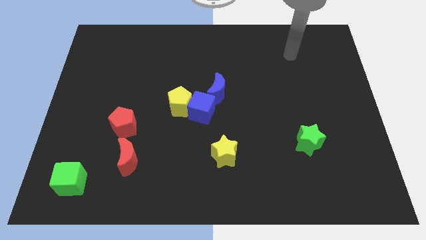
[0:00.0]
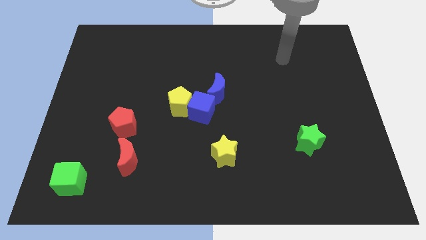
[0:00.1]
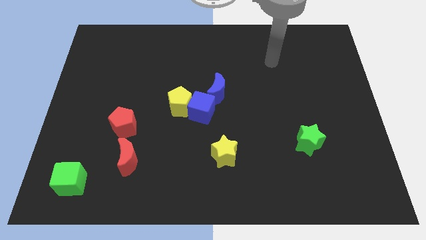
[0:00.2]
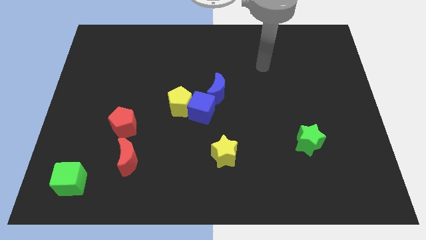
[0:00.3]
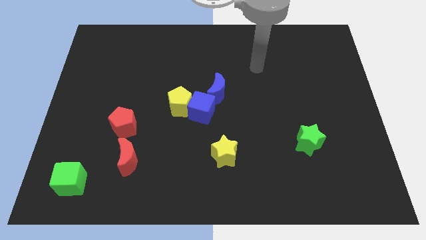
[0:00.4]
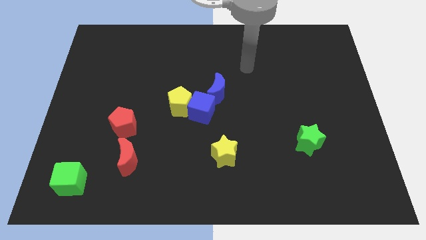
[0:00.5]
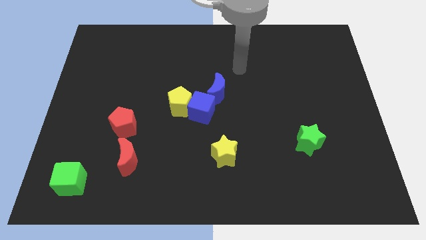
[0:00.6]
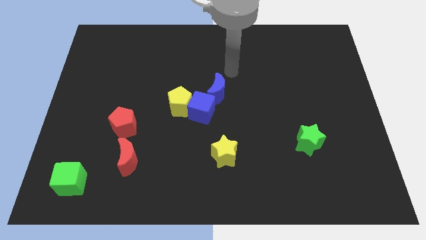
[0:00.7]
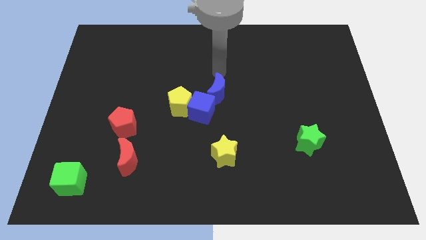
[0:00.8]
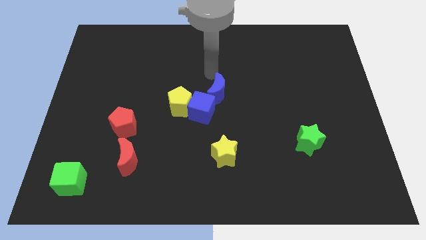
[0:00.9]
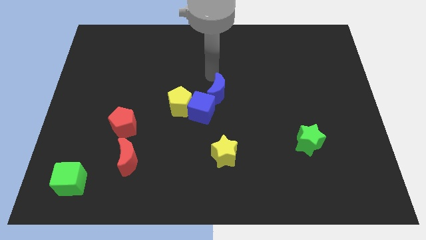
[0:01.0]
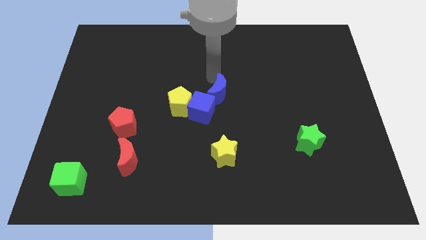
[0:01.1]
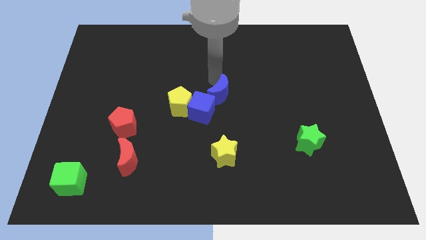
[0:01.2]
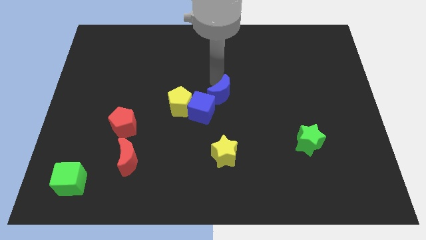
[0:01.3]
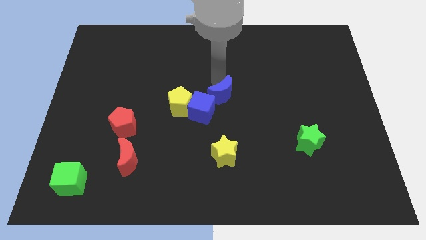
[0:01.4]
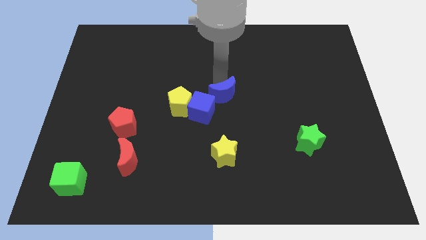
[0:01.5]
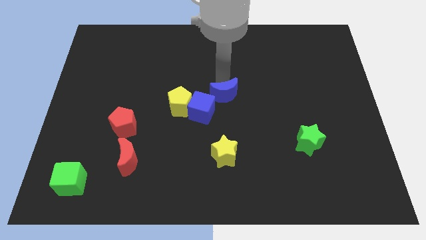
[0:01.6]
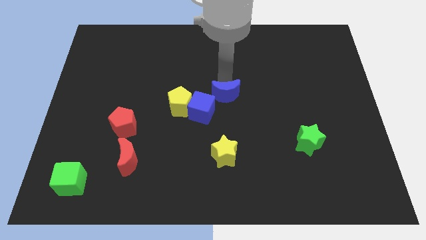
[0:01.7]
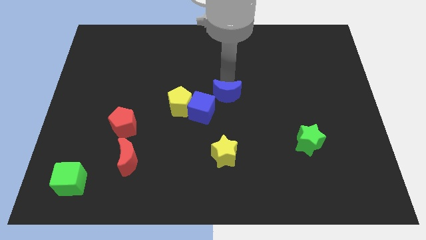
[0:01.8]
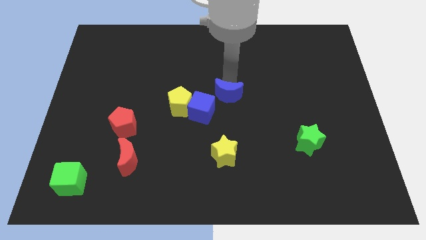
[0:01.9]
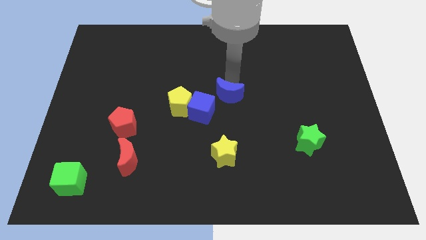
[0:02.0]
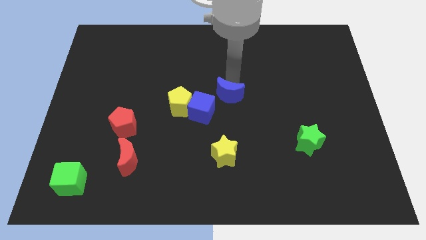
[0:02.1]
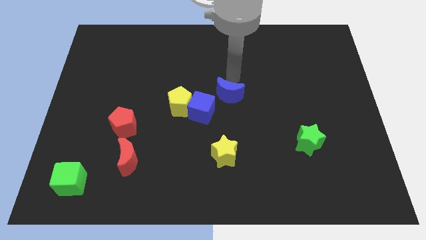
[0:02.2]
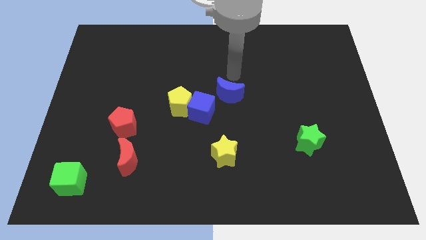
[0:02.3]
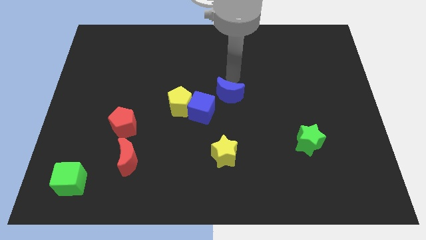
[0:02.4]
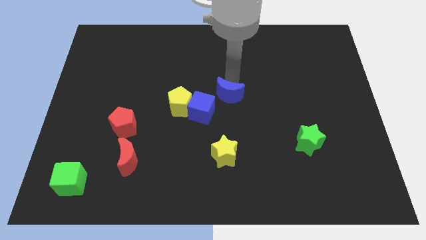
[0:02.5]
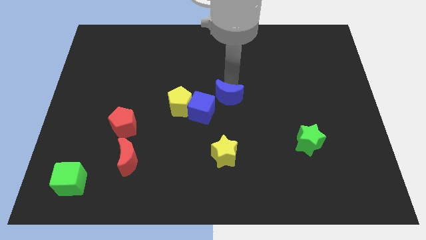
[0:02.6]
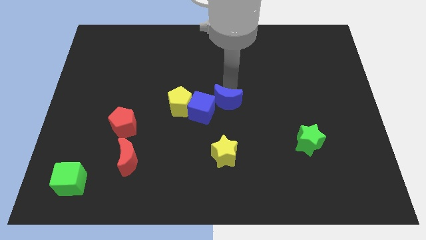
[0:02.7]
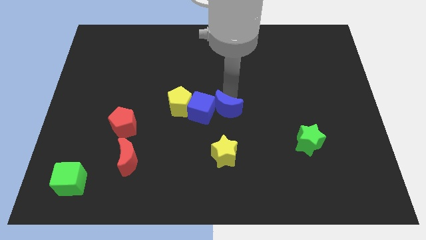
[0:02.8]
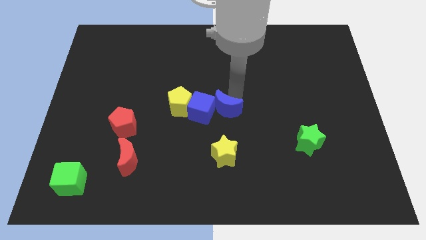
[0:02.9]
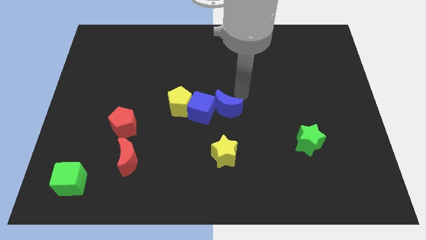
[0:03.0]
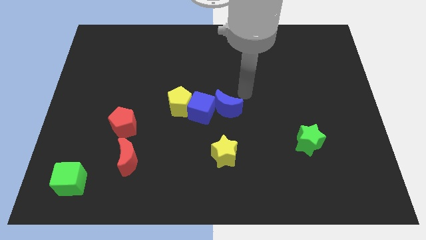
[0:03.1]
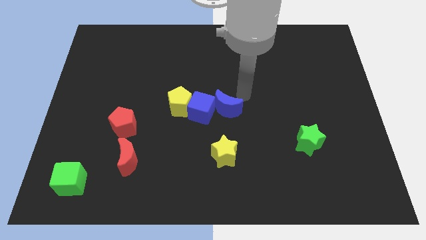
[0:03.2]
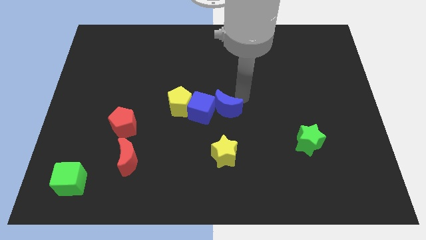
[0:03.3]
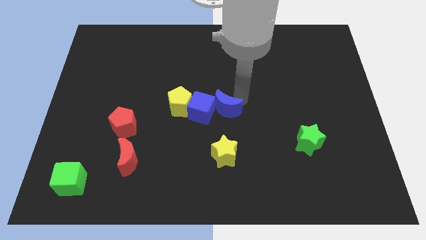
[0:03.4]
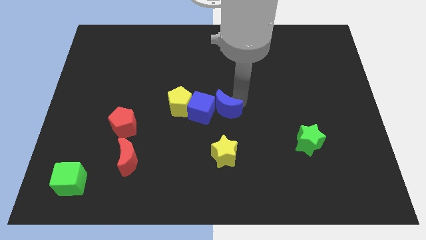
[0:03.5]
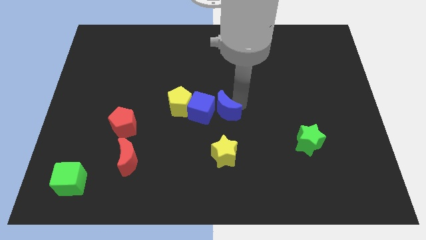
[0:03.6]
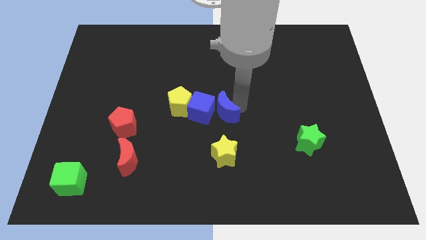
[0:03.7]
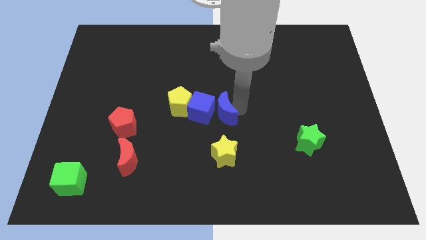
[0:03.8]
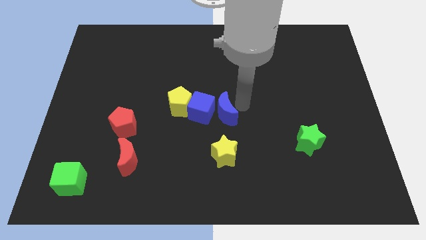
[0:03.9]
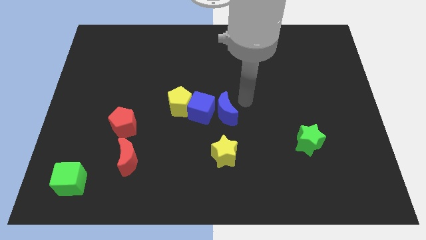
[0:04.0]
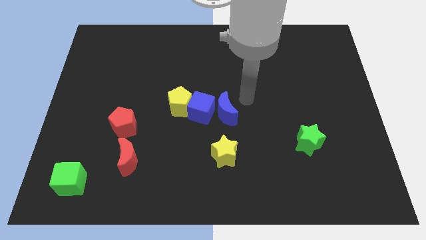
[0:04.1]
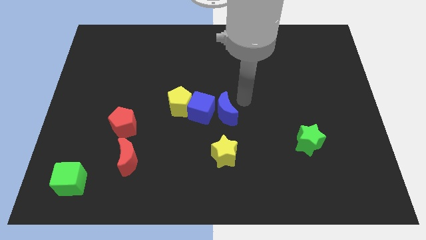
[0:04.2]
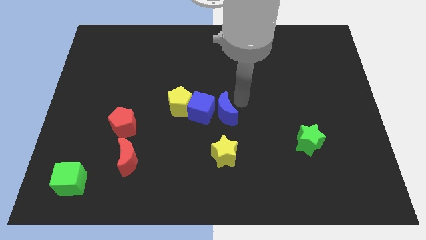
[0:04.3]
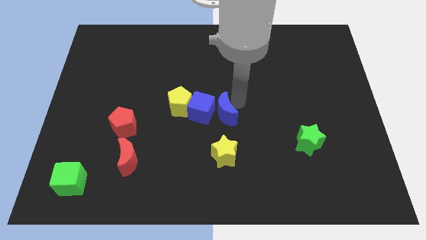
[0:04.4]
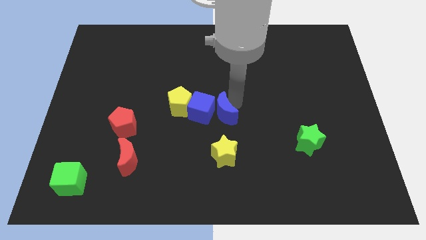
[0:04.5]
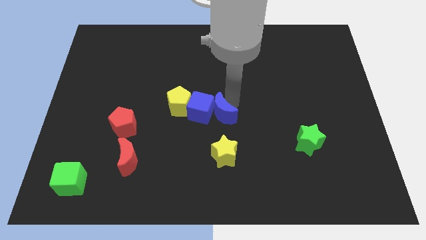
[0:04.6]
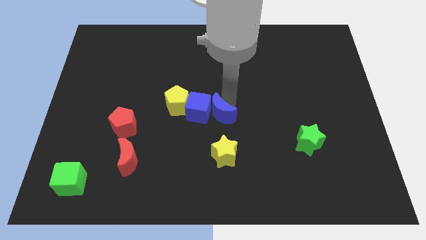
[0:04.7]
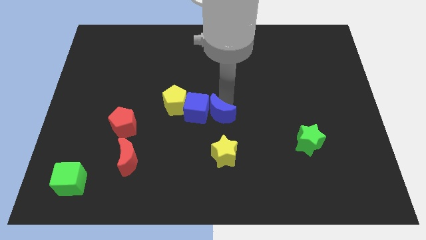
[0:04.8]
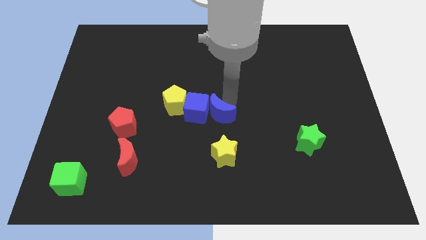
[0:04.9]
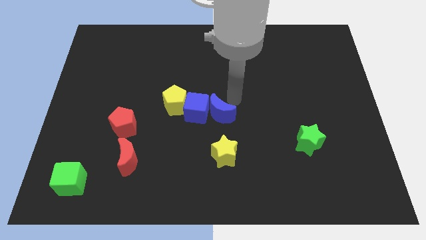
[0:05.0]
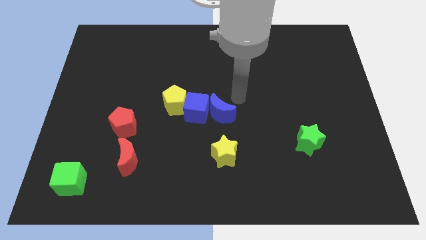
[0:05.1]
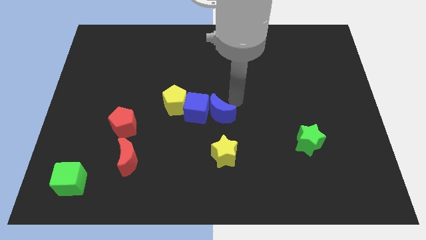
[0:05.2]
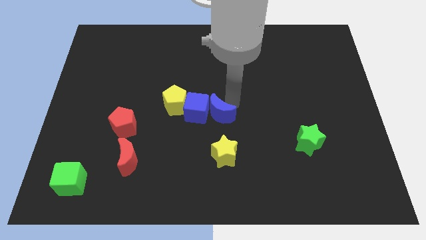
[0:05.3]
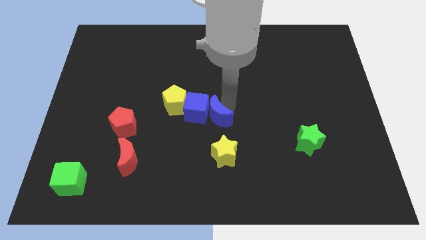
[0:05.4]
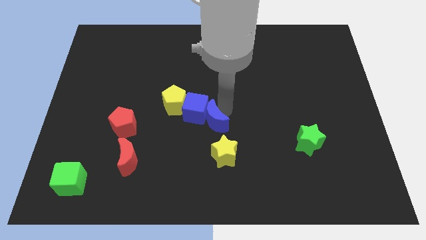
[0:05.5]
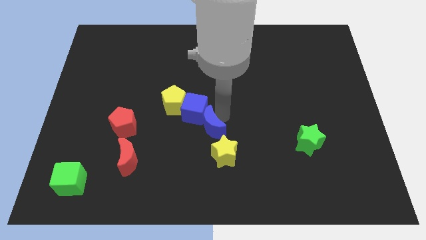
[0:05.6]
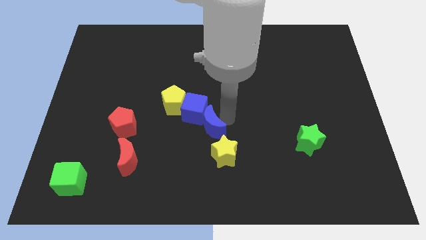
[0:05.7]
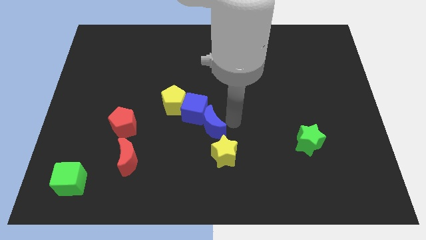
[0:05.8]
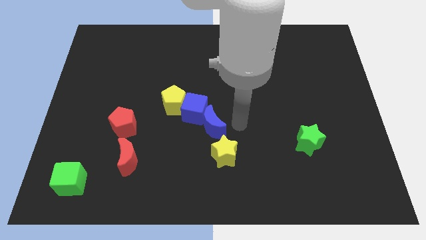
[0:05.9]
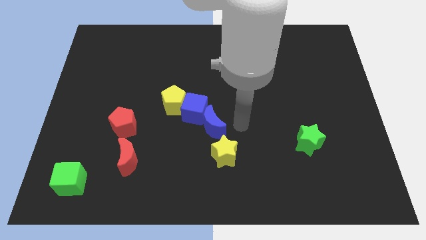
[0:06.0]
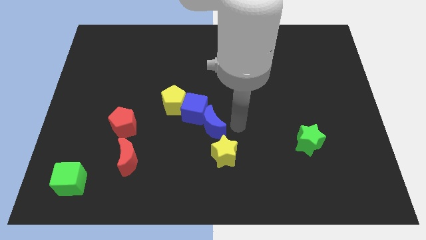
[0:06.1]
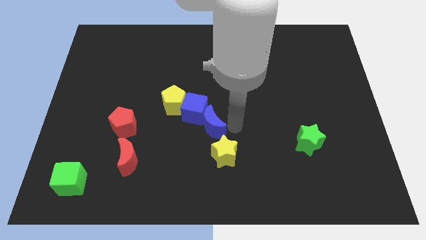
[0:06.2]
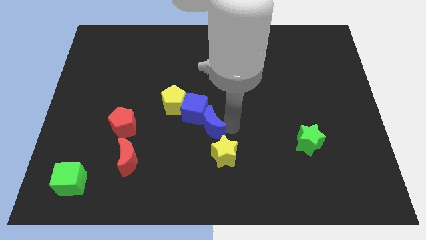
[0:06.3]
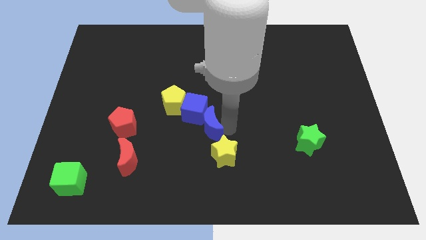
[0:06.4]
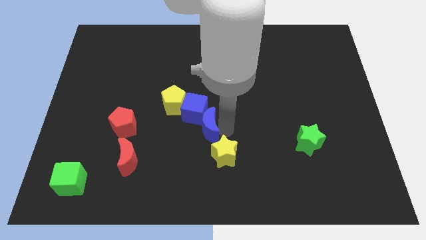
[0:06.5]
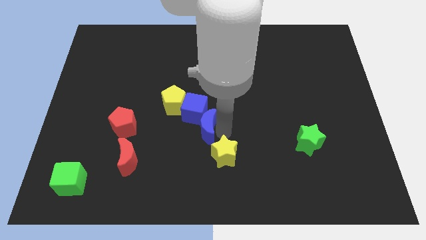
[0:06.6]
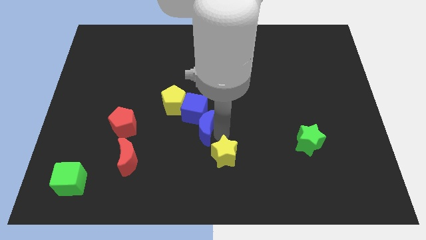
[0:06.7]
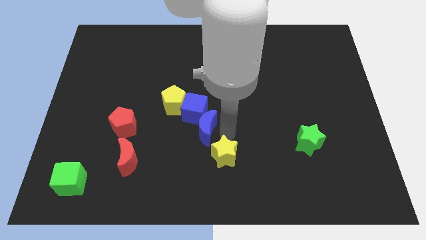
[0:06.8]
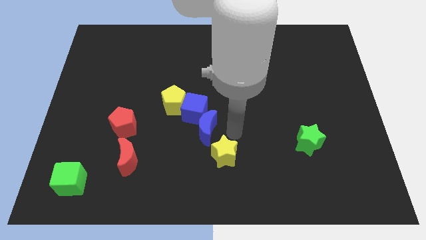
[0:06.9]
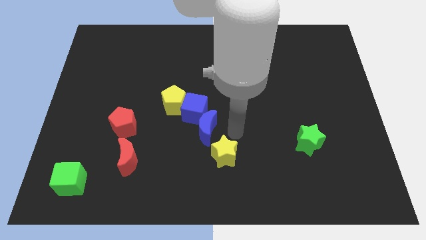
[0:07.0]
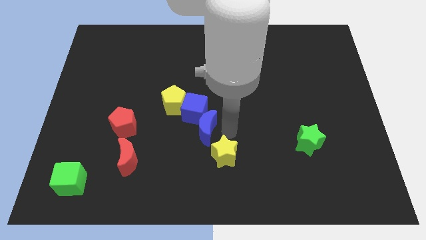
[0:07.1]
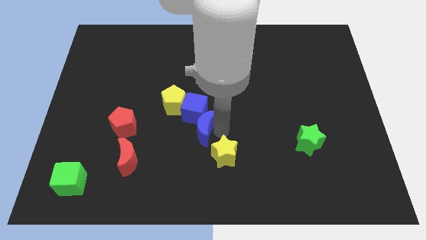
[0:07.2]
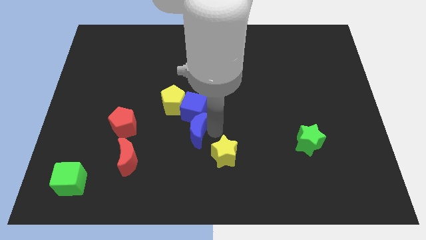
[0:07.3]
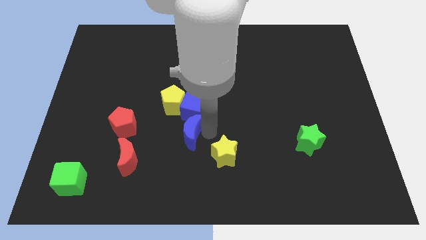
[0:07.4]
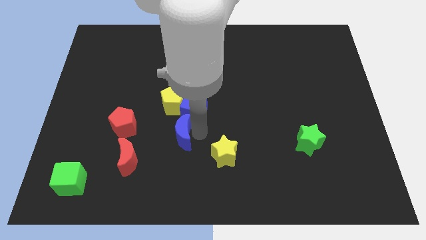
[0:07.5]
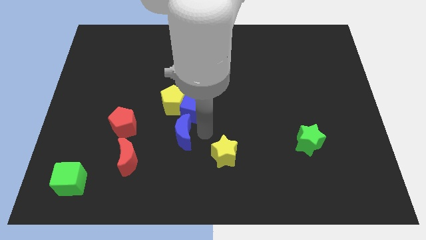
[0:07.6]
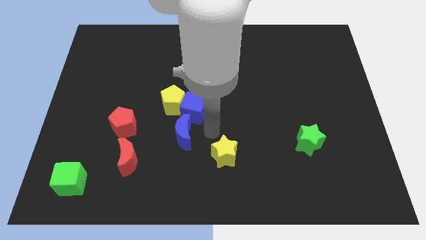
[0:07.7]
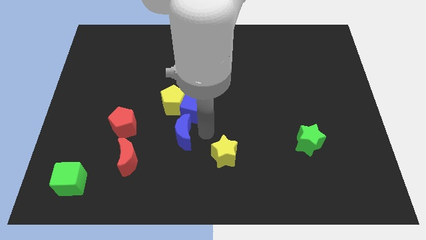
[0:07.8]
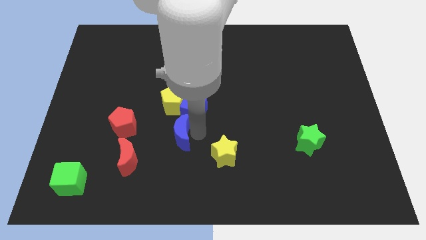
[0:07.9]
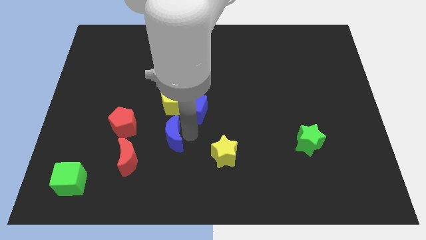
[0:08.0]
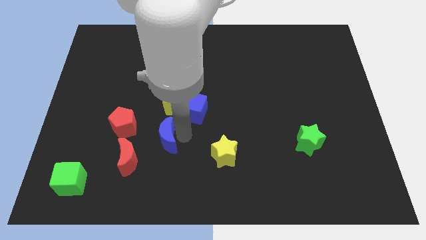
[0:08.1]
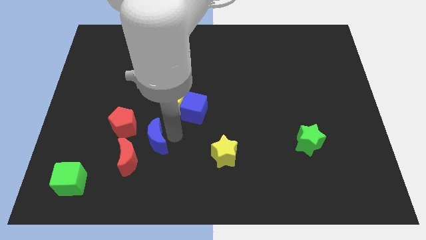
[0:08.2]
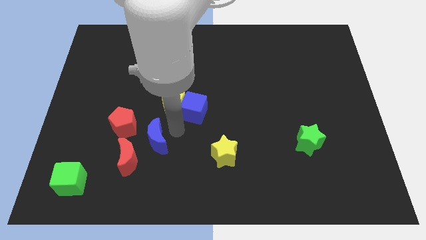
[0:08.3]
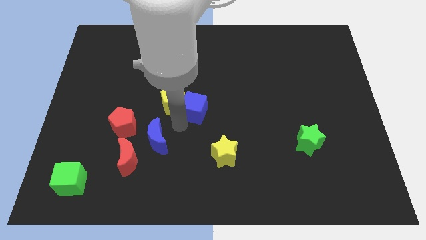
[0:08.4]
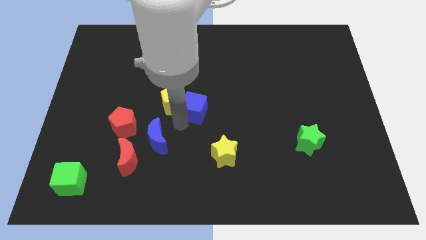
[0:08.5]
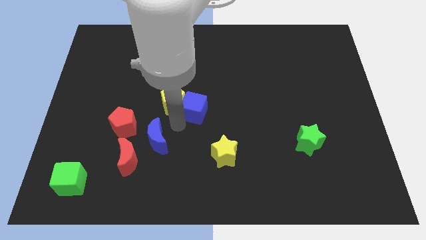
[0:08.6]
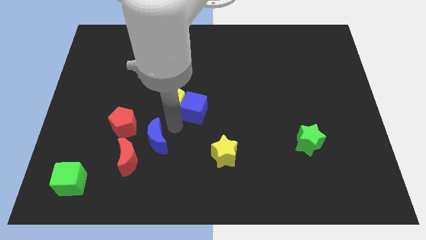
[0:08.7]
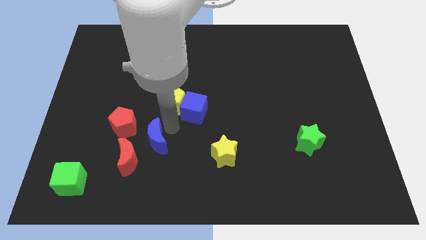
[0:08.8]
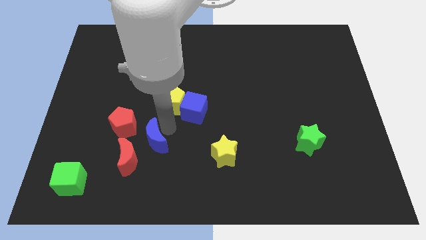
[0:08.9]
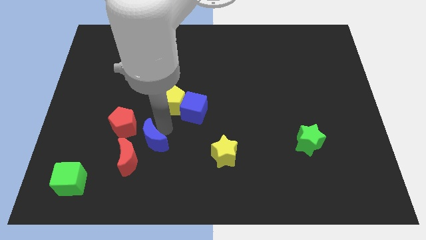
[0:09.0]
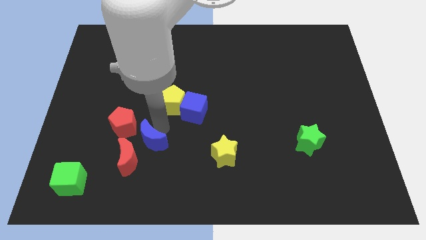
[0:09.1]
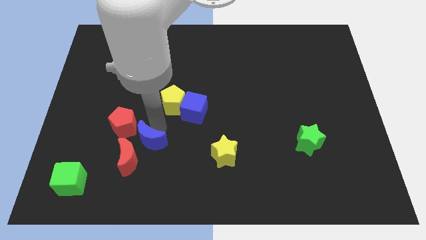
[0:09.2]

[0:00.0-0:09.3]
put the blue moon to the red moon
